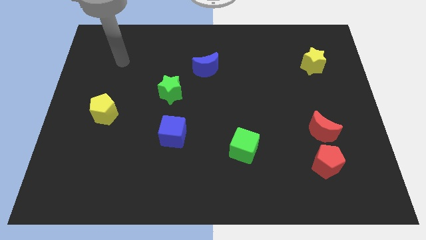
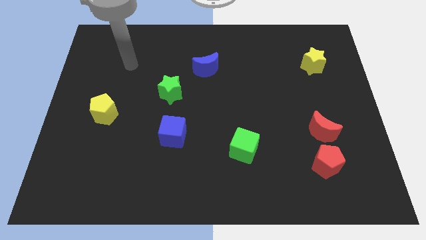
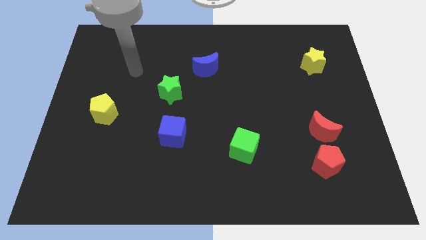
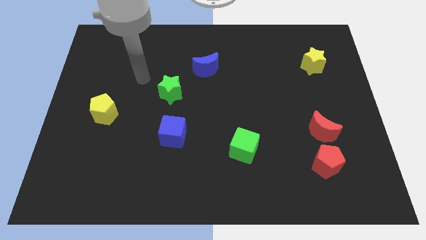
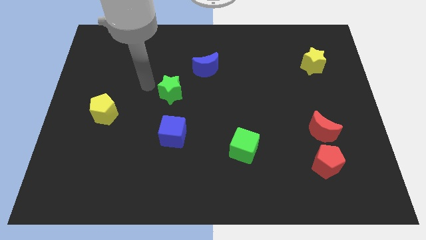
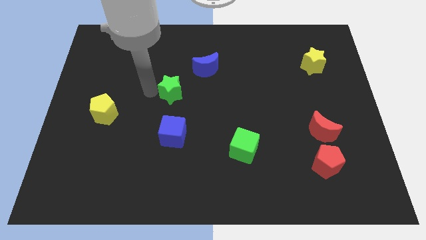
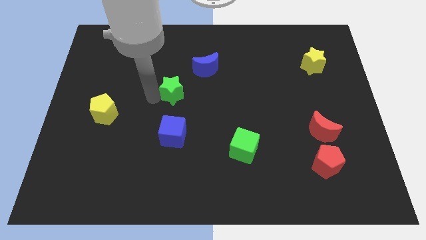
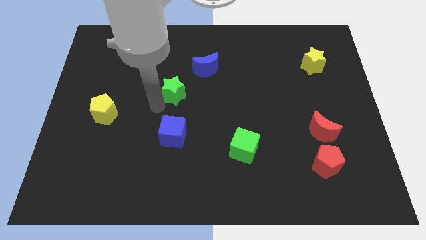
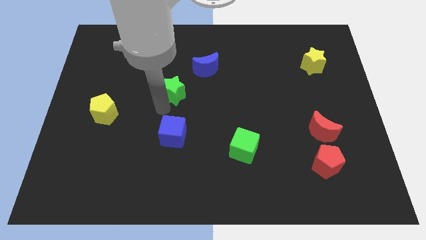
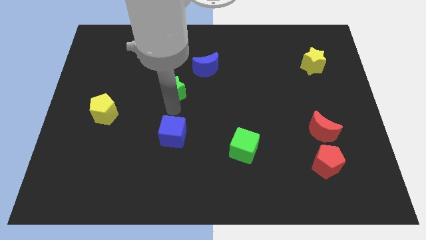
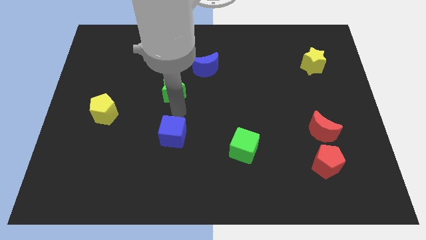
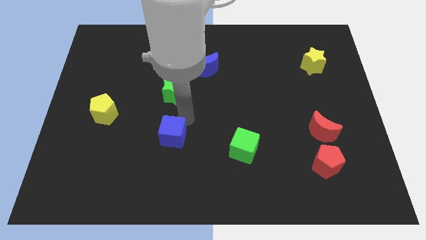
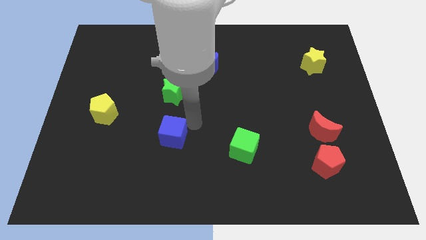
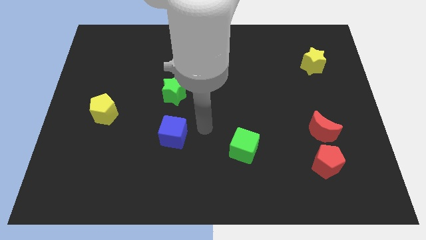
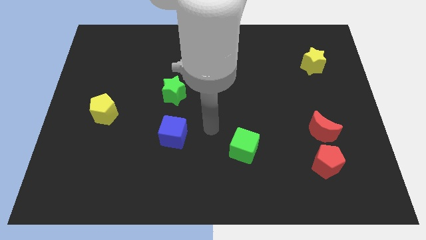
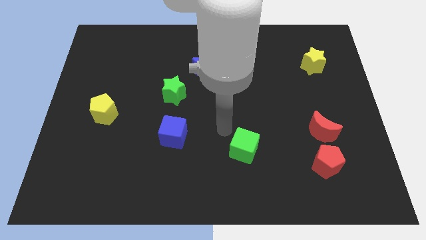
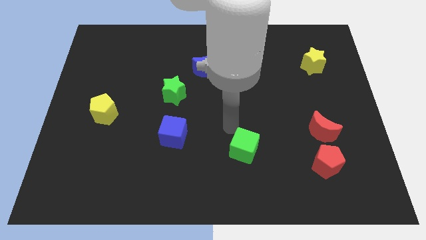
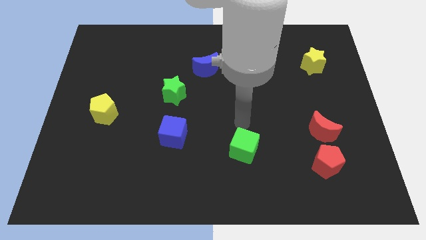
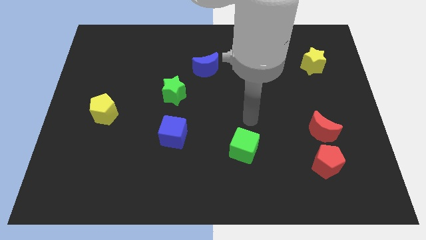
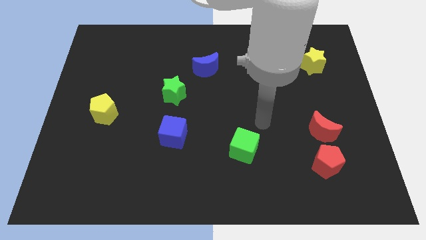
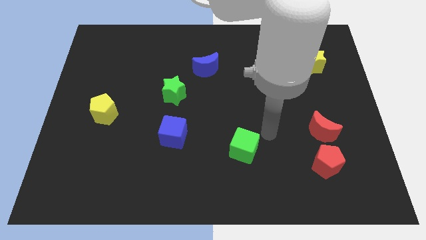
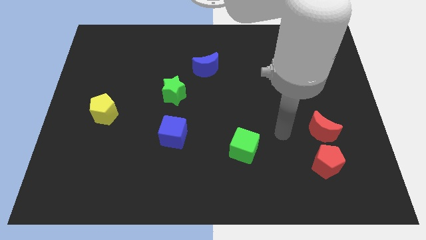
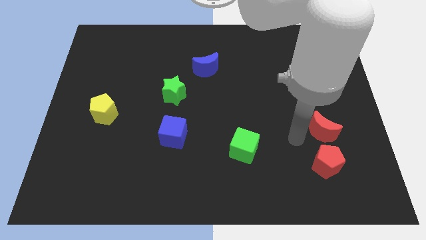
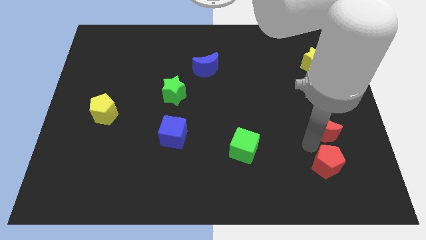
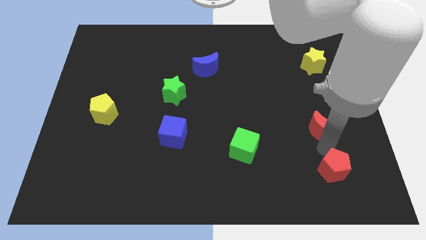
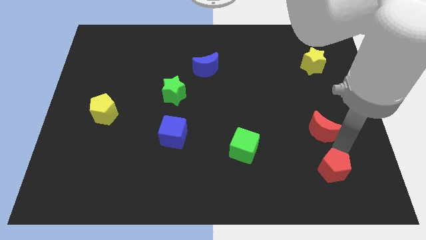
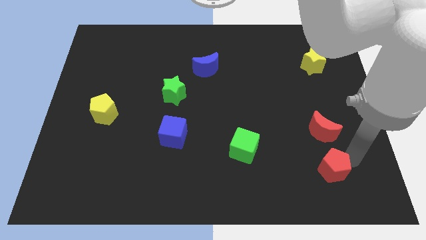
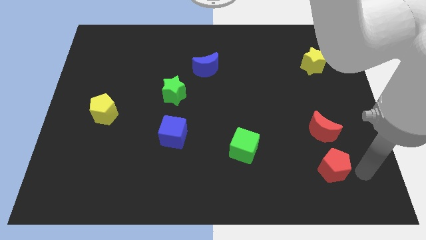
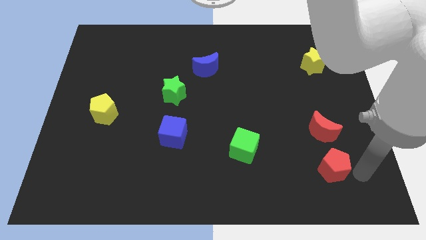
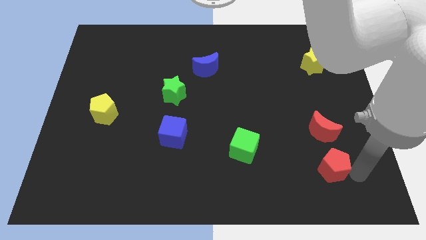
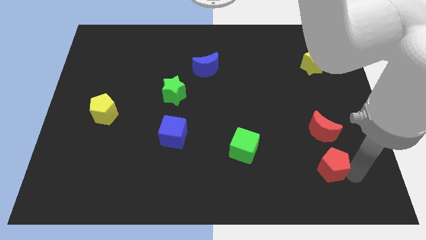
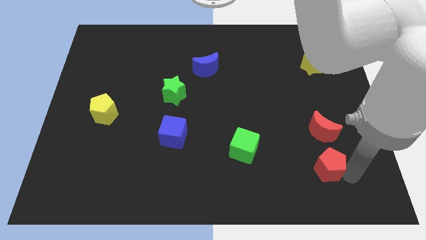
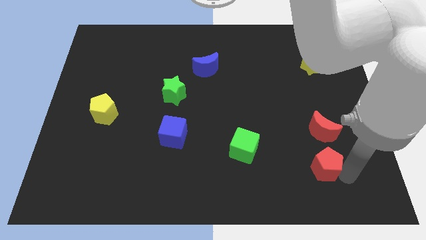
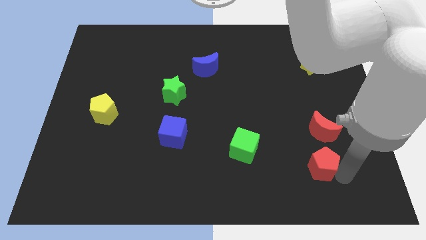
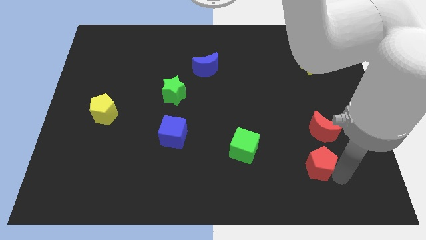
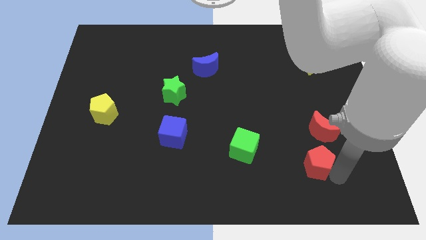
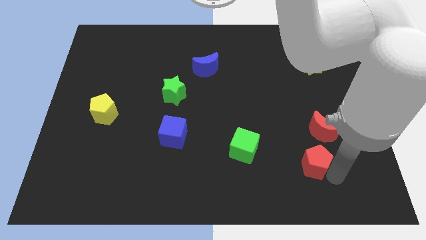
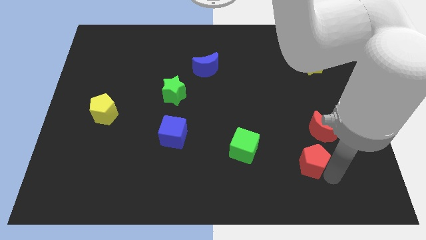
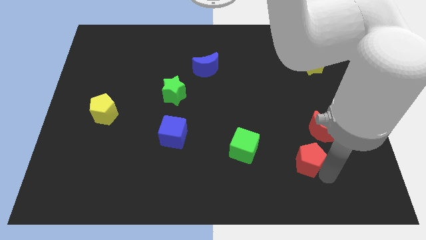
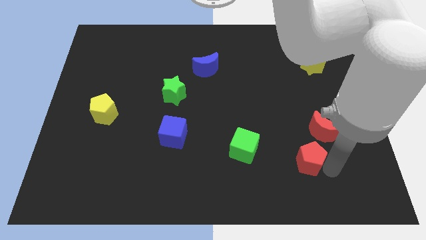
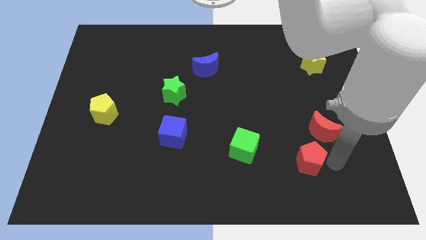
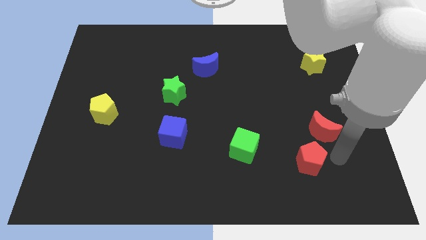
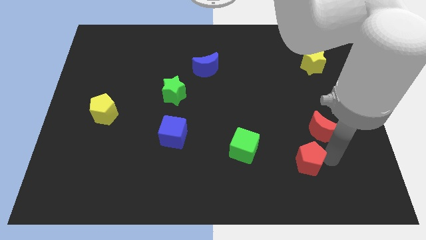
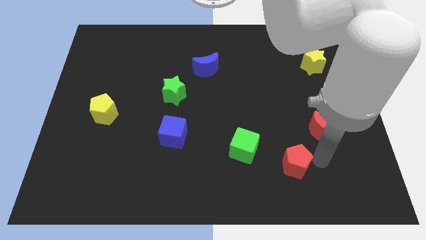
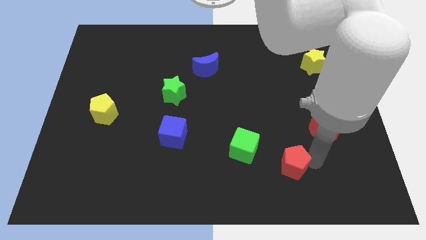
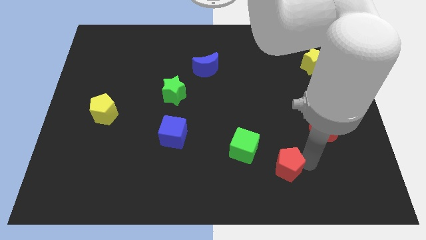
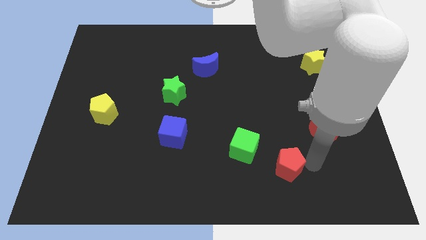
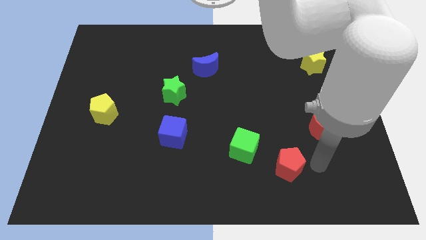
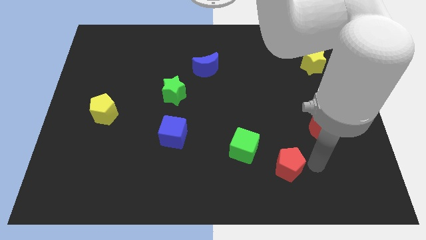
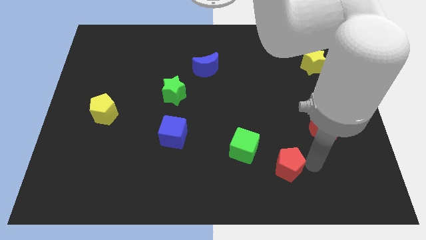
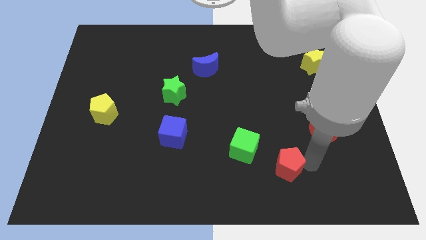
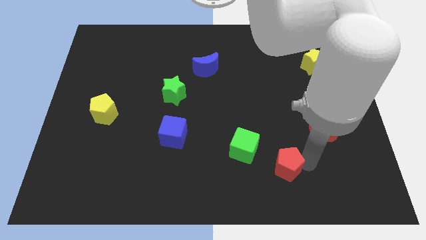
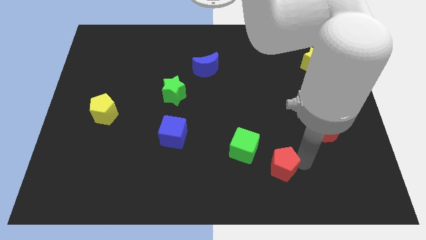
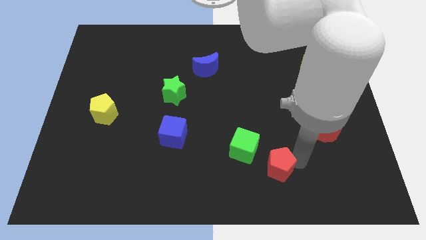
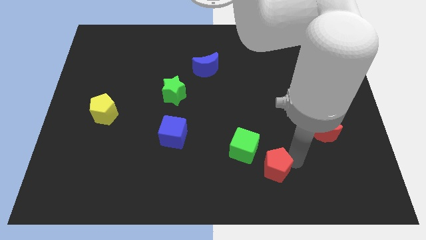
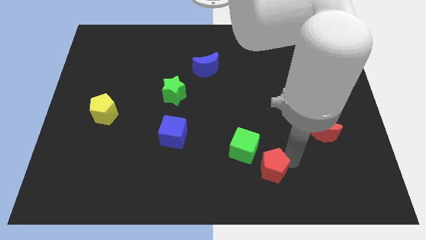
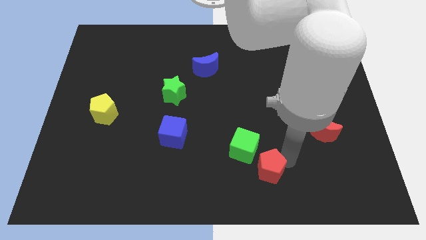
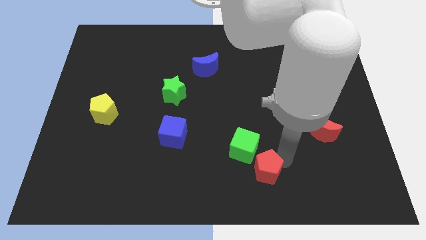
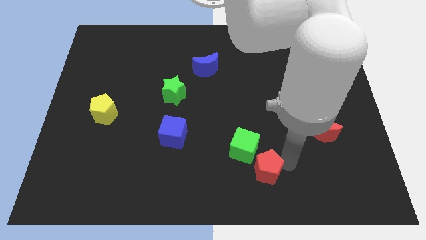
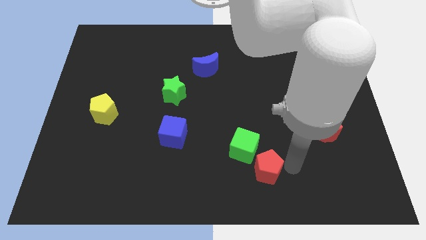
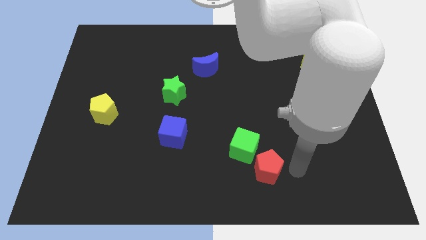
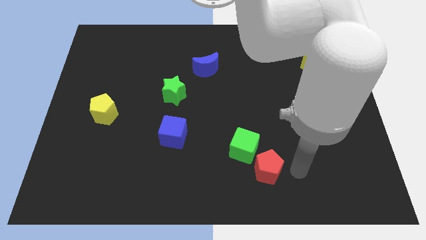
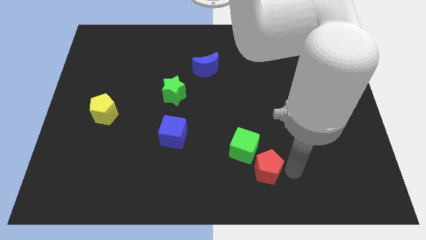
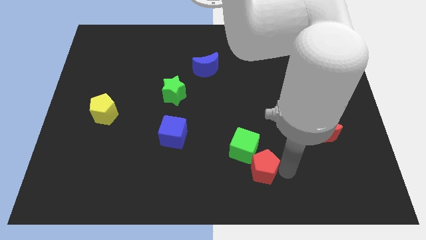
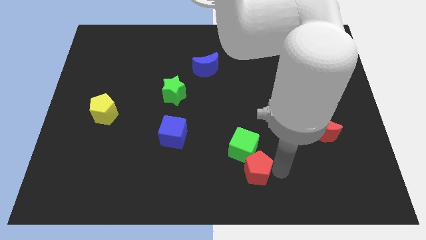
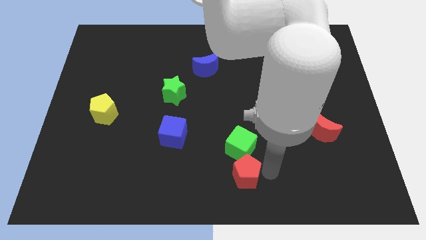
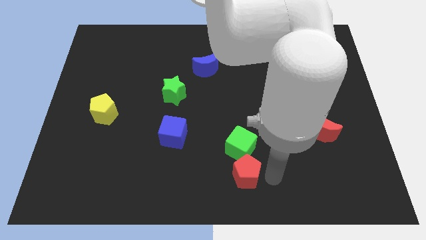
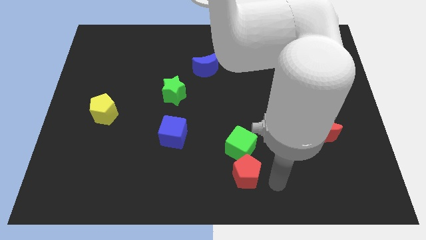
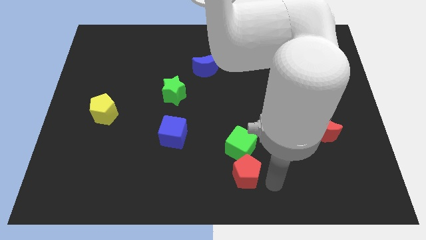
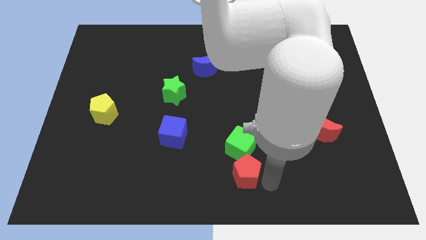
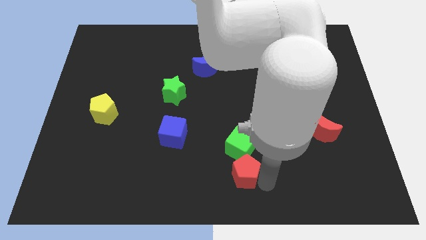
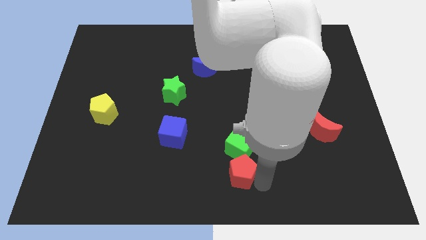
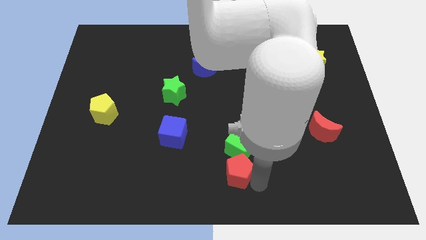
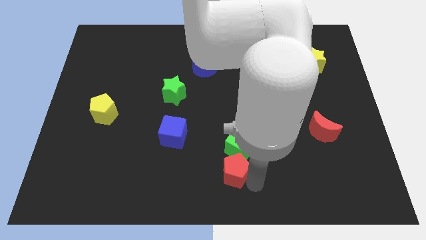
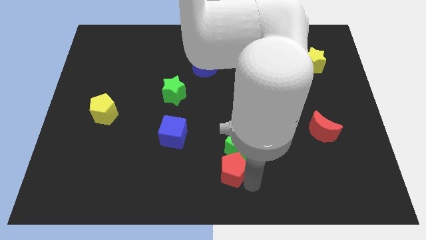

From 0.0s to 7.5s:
move the red pentagon left

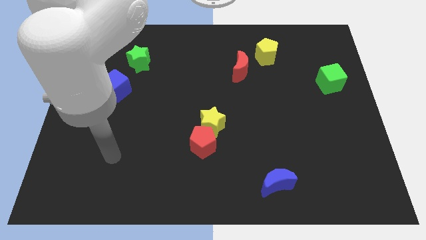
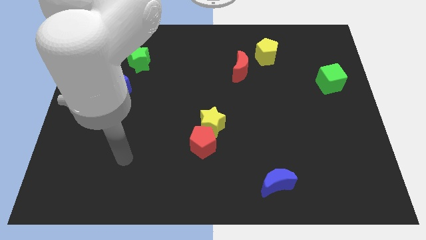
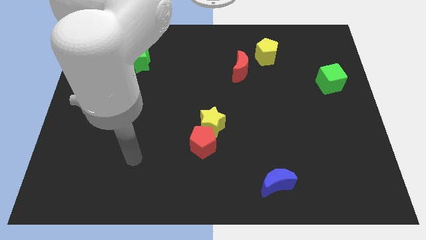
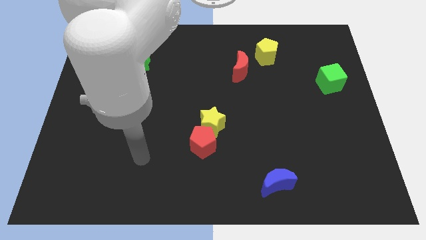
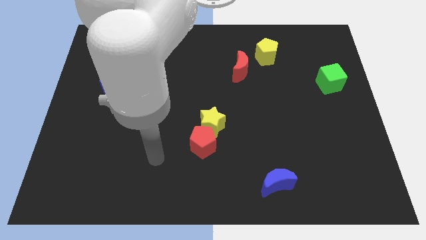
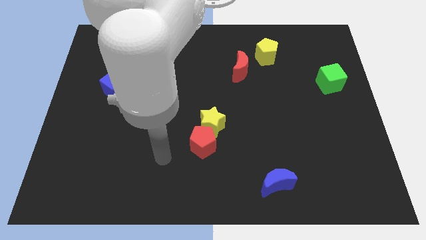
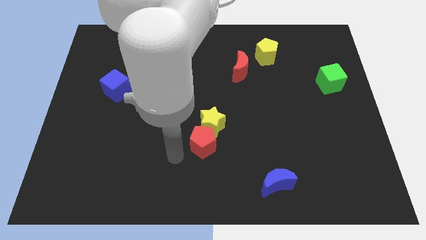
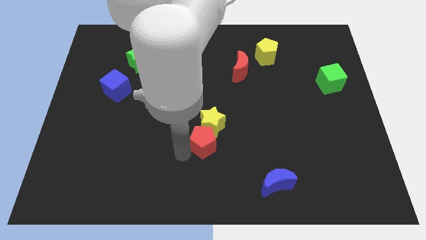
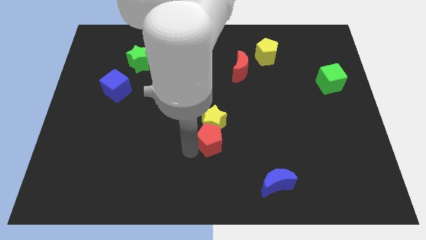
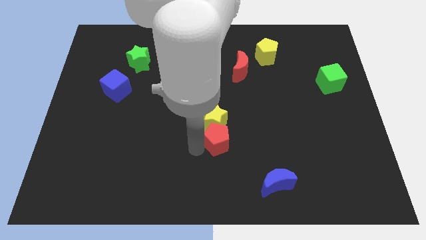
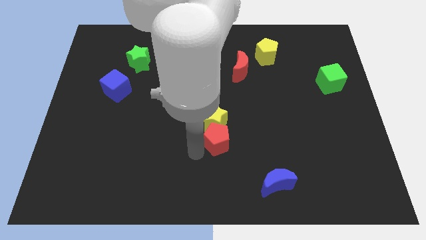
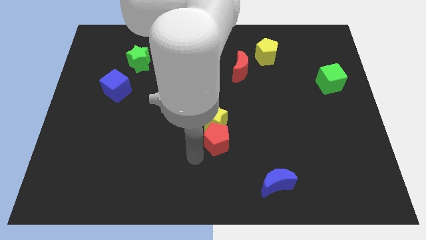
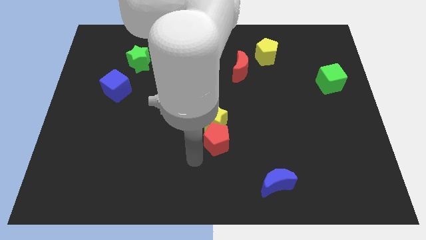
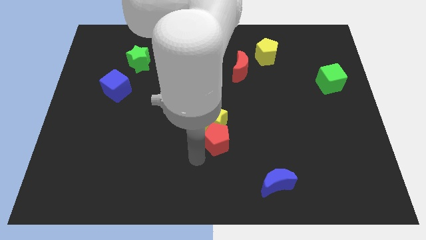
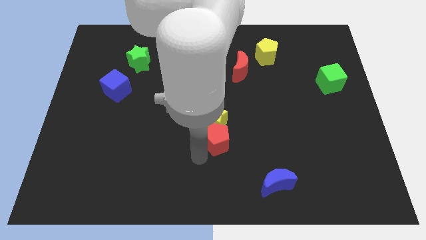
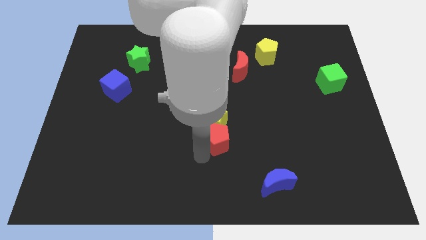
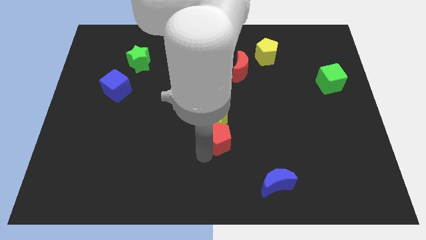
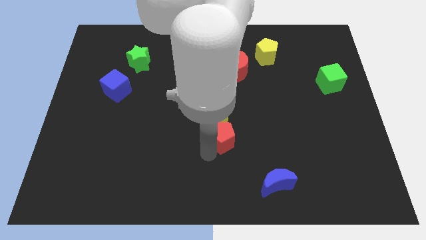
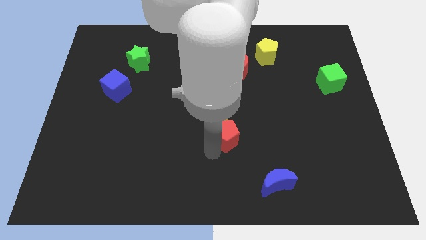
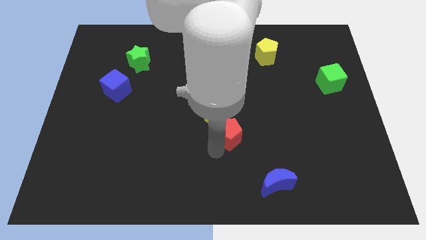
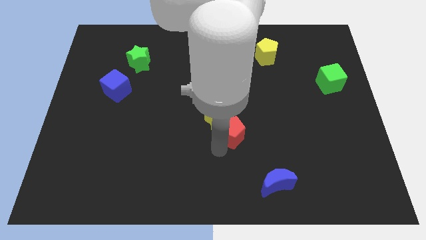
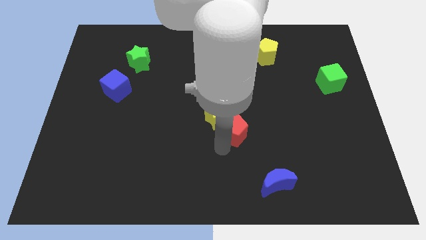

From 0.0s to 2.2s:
slightly slide the red pentagon up and right diagonally
